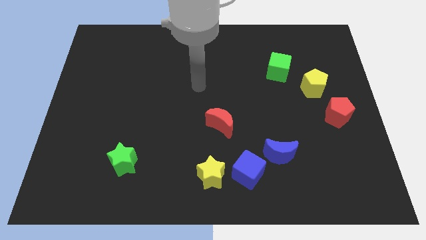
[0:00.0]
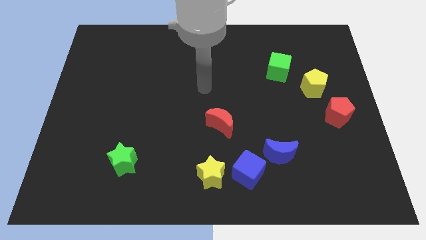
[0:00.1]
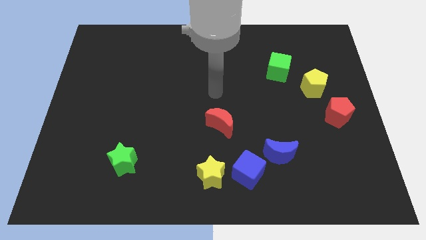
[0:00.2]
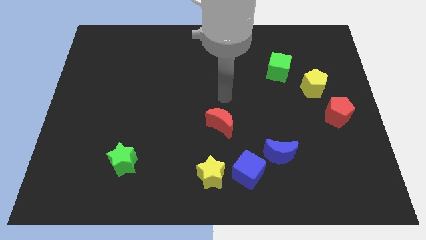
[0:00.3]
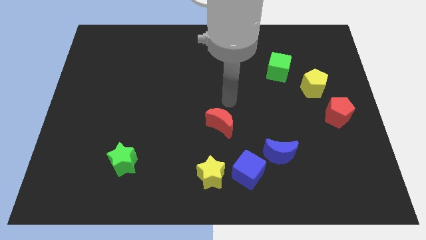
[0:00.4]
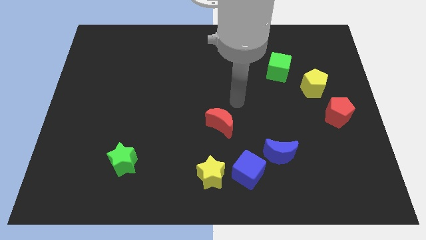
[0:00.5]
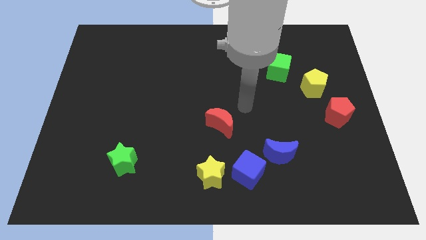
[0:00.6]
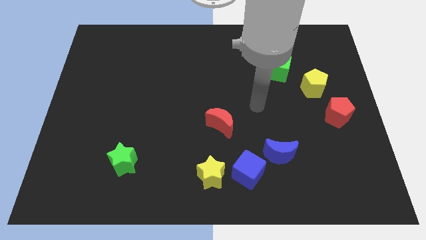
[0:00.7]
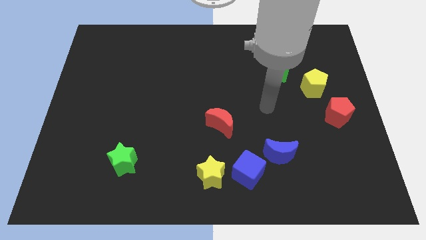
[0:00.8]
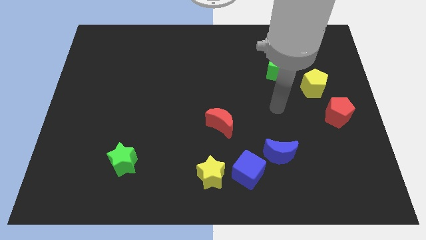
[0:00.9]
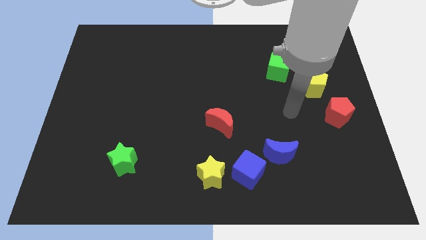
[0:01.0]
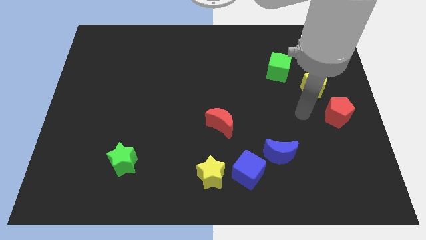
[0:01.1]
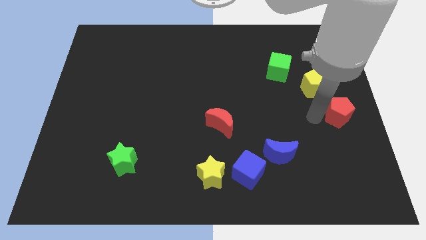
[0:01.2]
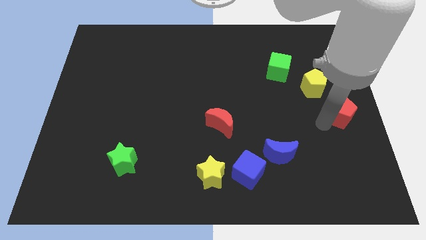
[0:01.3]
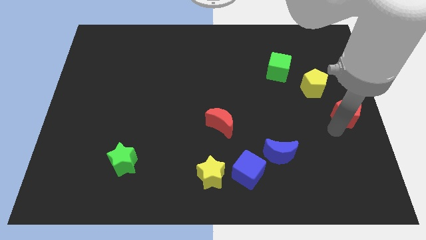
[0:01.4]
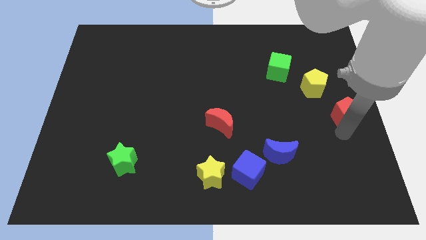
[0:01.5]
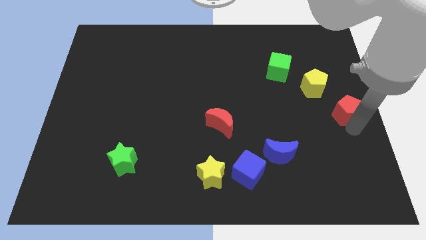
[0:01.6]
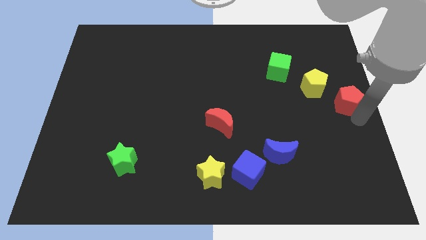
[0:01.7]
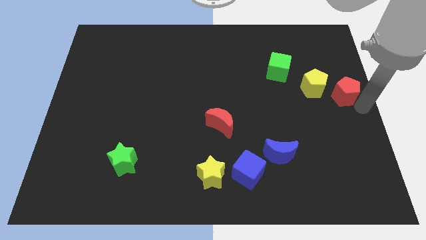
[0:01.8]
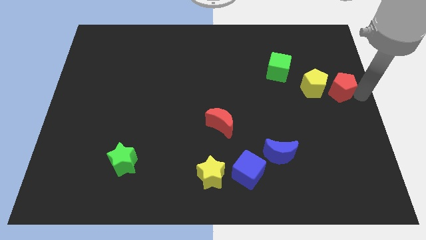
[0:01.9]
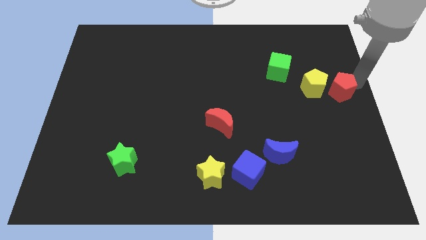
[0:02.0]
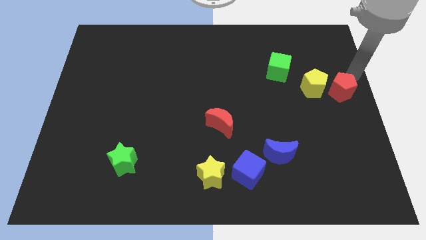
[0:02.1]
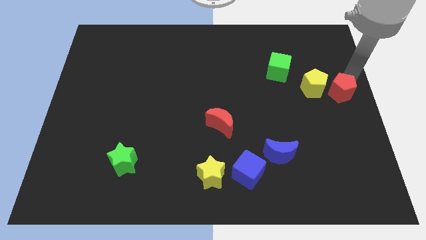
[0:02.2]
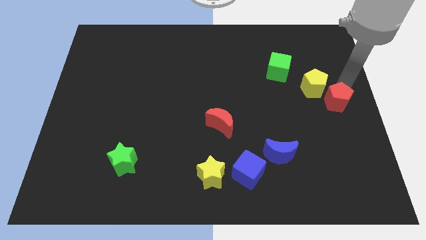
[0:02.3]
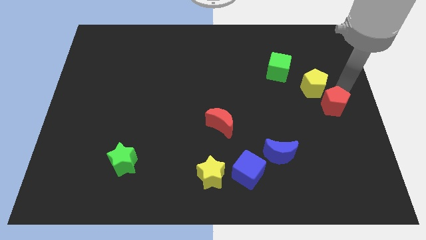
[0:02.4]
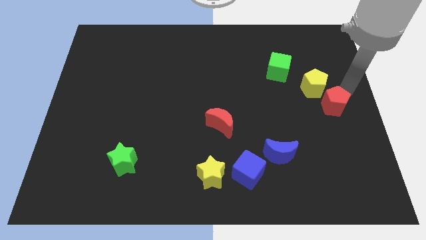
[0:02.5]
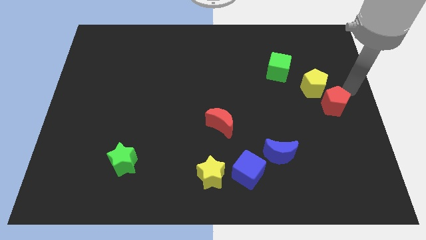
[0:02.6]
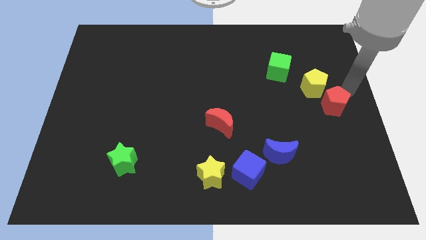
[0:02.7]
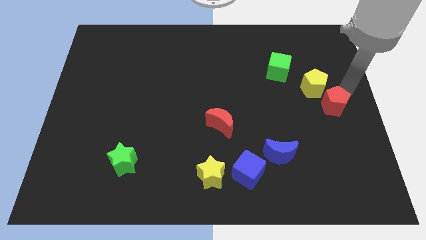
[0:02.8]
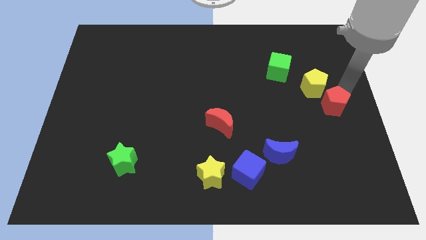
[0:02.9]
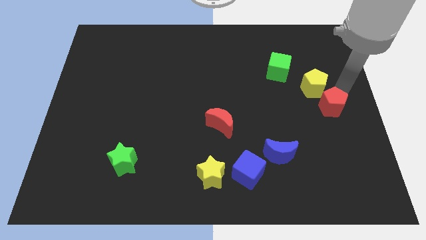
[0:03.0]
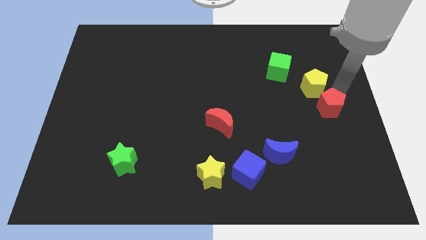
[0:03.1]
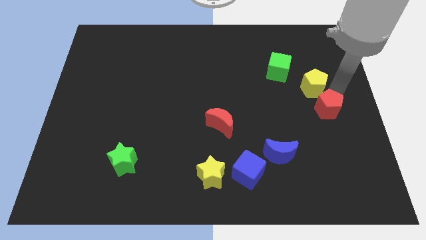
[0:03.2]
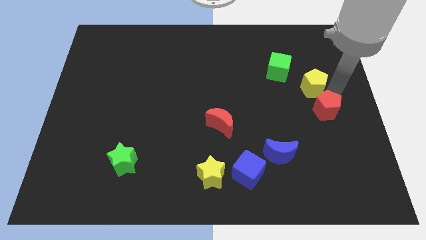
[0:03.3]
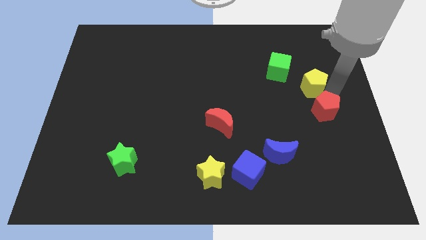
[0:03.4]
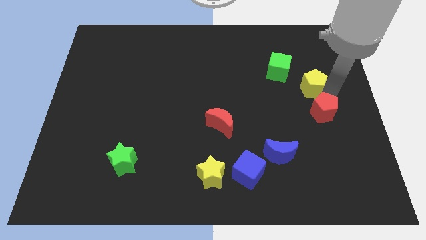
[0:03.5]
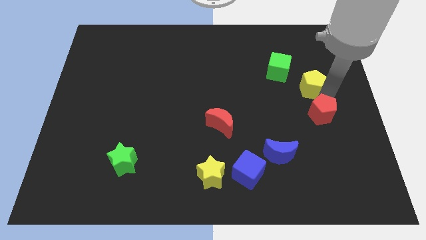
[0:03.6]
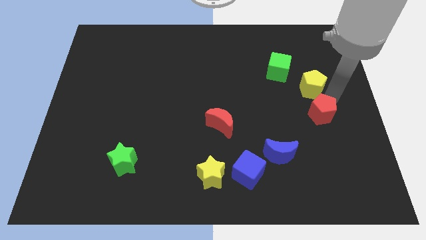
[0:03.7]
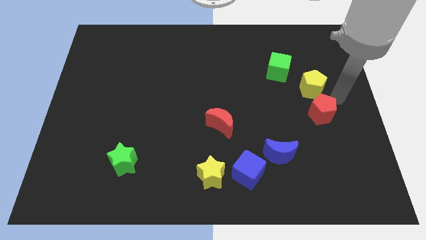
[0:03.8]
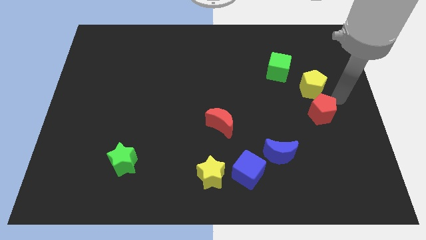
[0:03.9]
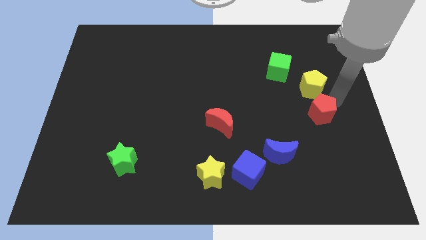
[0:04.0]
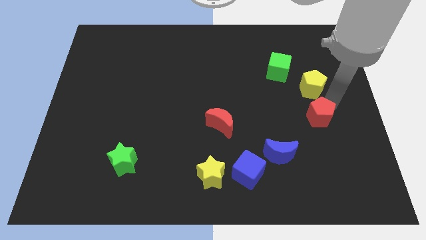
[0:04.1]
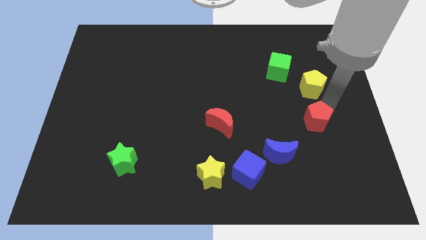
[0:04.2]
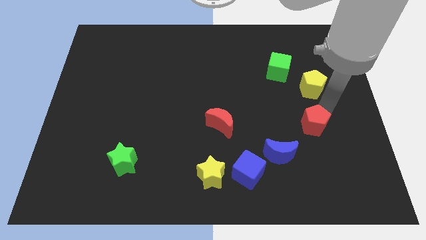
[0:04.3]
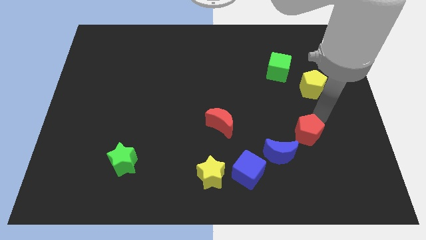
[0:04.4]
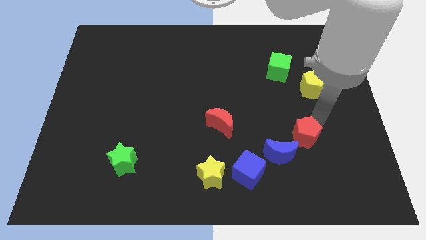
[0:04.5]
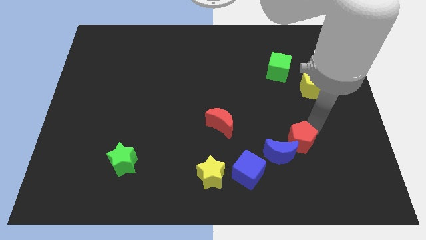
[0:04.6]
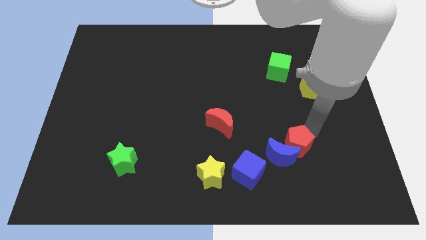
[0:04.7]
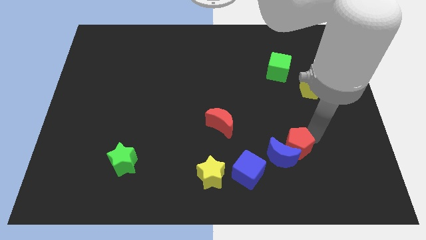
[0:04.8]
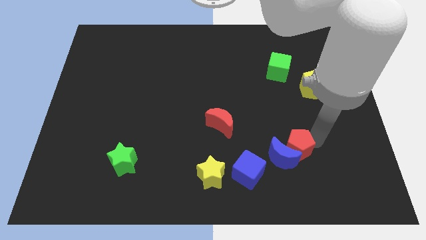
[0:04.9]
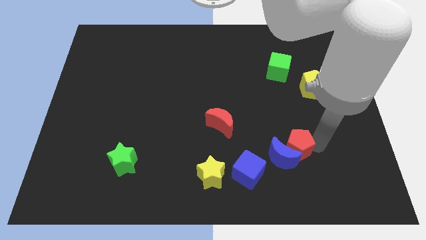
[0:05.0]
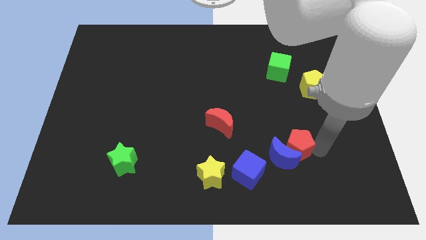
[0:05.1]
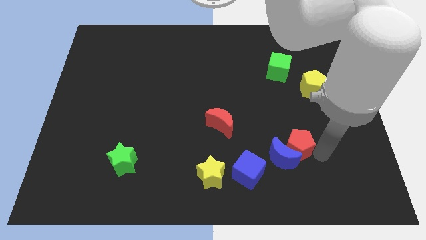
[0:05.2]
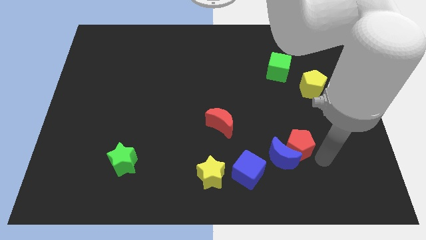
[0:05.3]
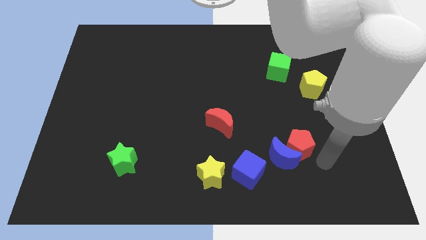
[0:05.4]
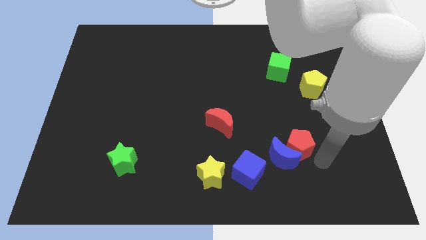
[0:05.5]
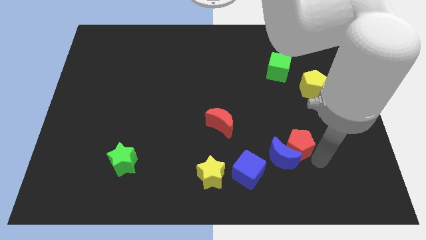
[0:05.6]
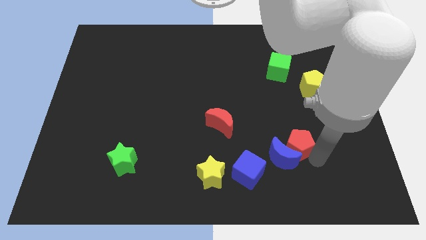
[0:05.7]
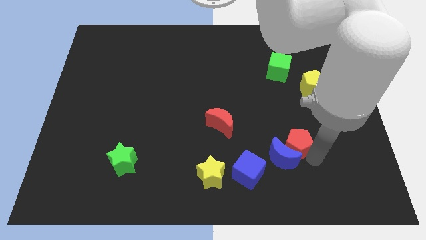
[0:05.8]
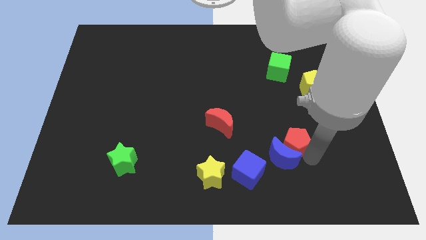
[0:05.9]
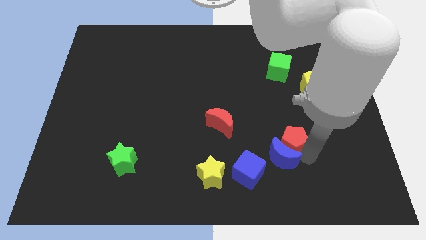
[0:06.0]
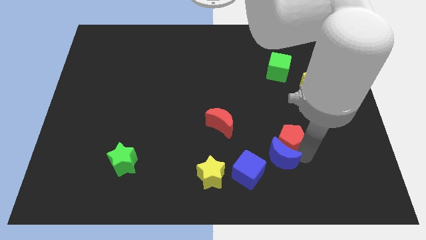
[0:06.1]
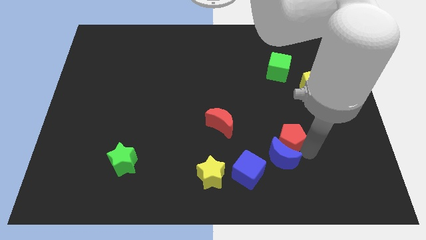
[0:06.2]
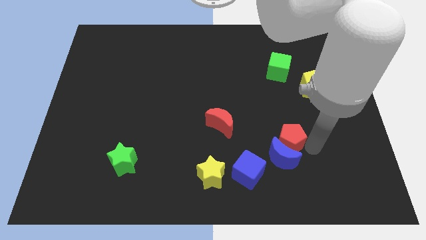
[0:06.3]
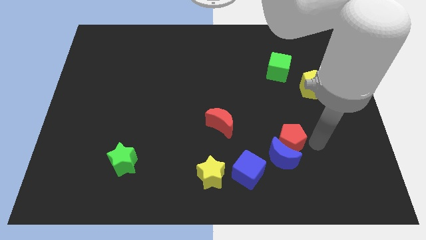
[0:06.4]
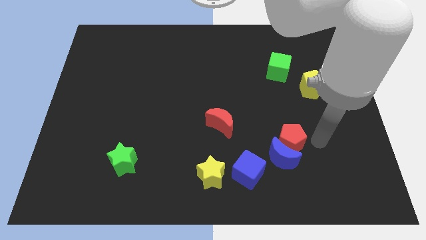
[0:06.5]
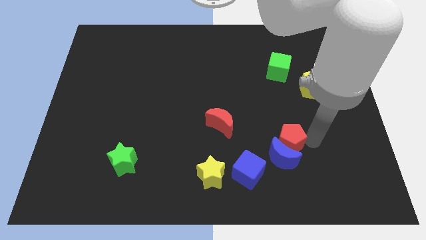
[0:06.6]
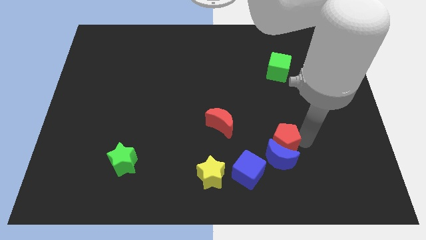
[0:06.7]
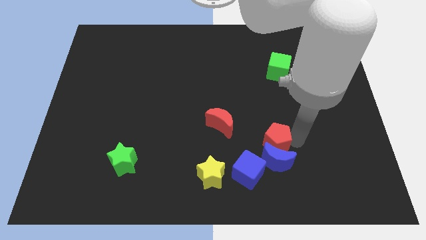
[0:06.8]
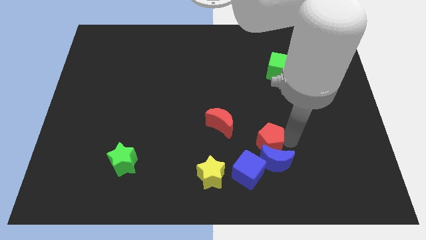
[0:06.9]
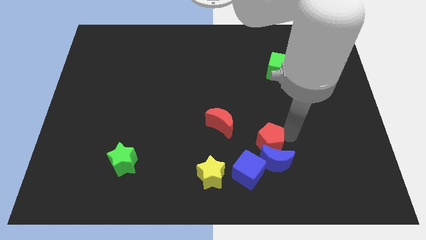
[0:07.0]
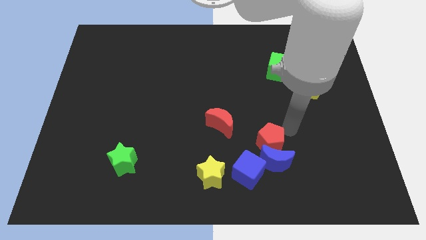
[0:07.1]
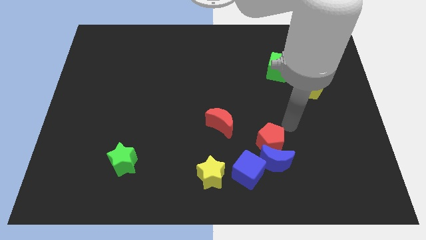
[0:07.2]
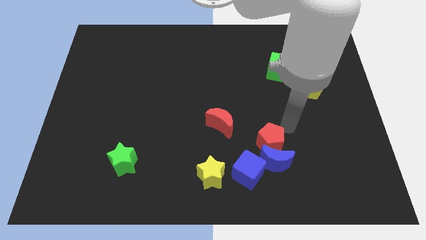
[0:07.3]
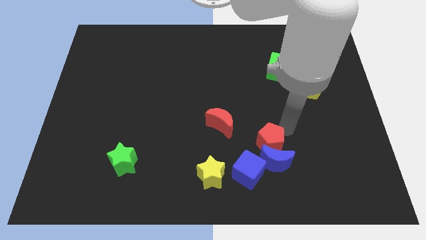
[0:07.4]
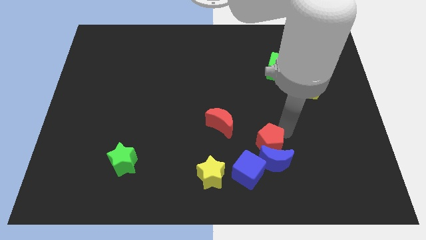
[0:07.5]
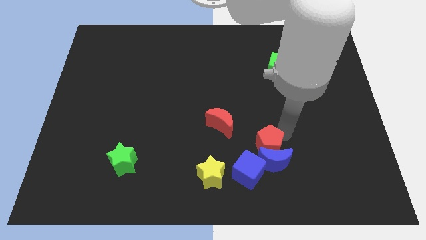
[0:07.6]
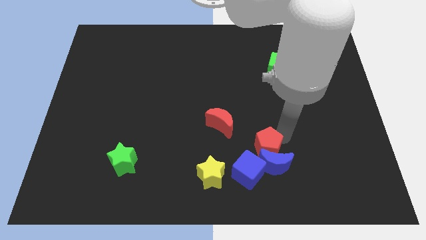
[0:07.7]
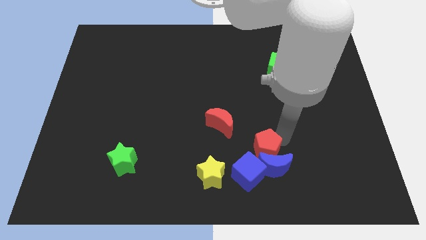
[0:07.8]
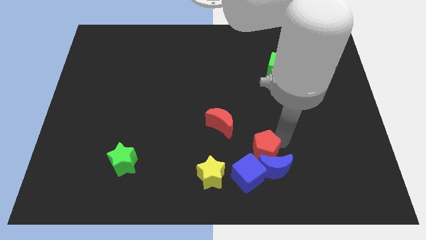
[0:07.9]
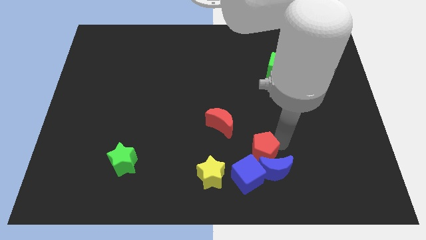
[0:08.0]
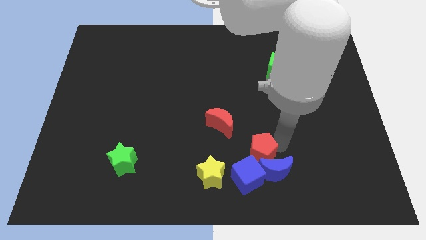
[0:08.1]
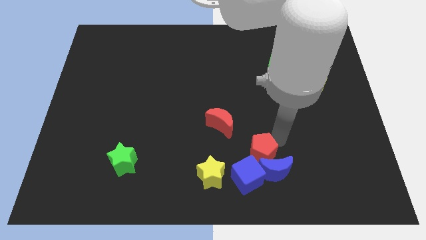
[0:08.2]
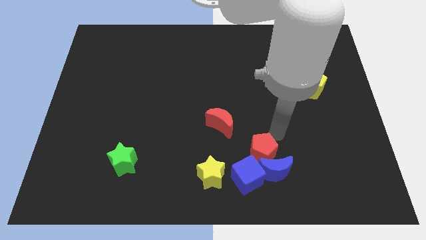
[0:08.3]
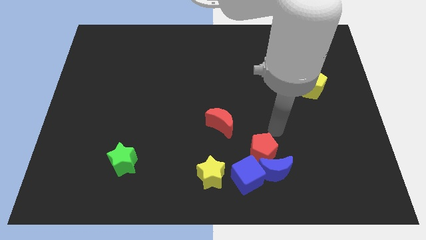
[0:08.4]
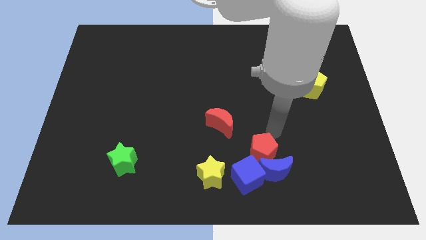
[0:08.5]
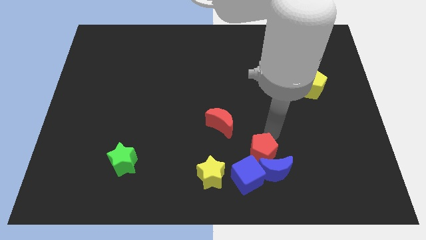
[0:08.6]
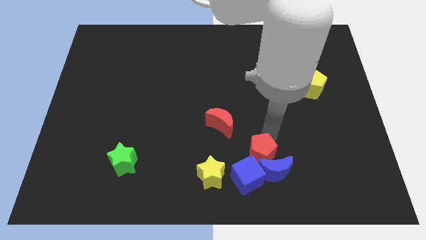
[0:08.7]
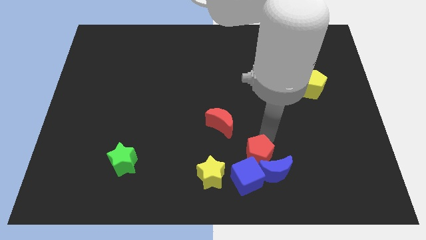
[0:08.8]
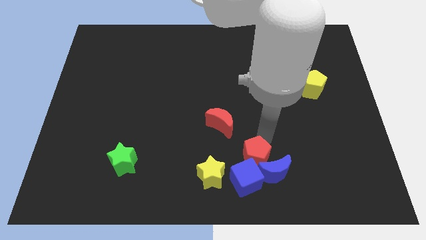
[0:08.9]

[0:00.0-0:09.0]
move the red pentagon towards the blue cube
